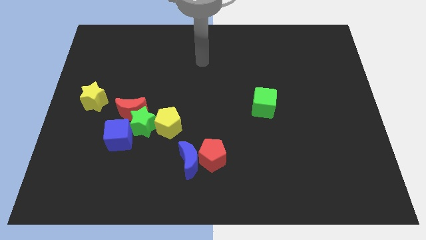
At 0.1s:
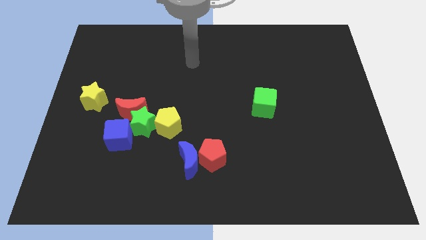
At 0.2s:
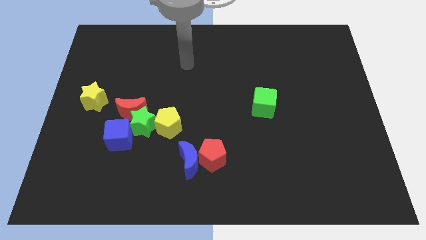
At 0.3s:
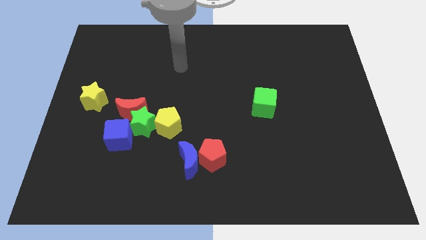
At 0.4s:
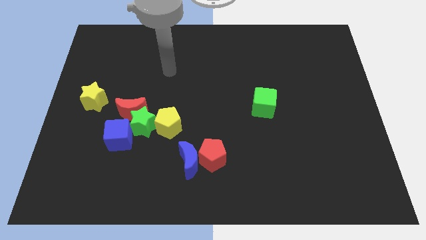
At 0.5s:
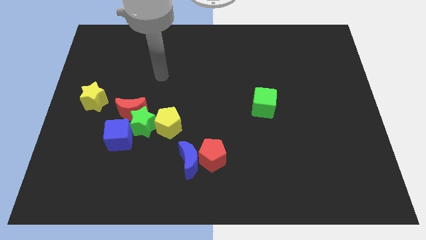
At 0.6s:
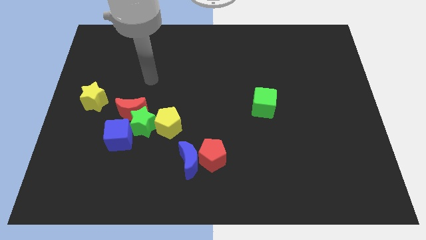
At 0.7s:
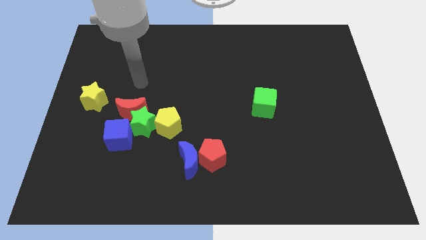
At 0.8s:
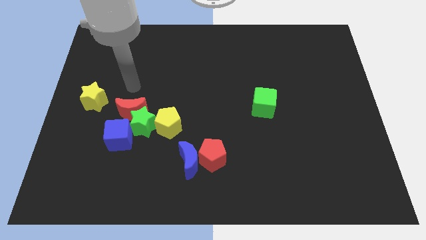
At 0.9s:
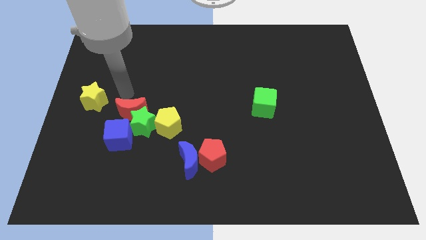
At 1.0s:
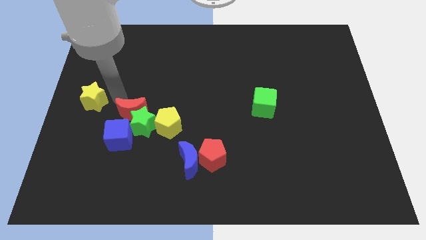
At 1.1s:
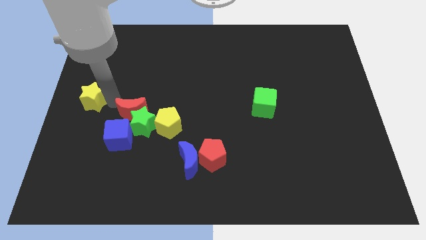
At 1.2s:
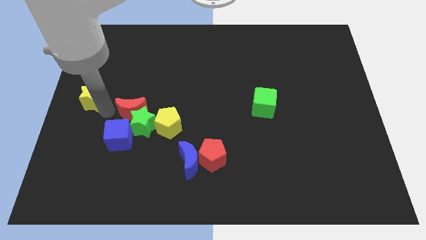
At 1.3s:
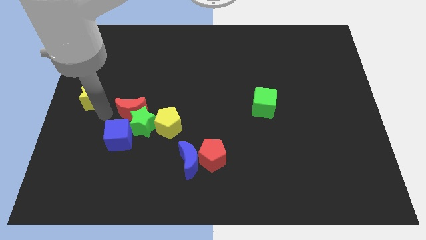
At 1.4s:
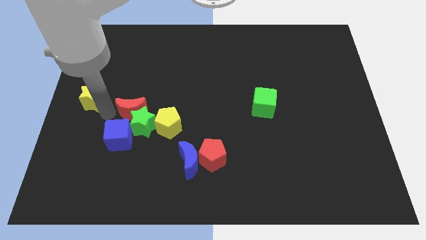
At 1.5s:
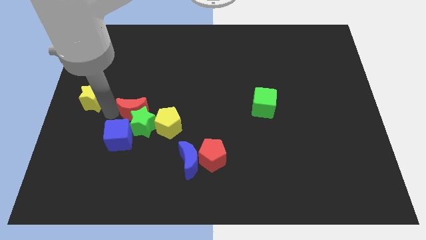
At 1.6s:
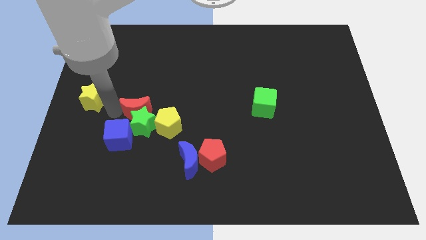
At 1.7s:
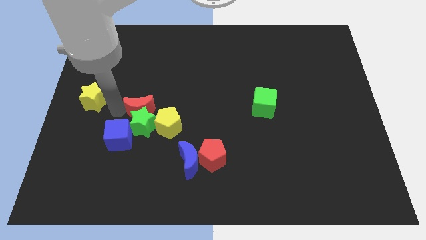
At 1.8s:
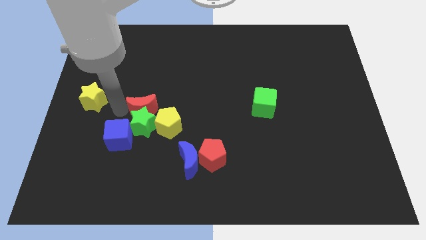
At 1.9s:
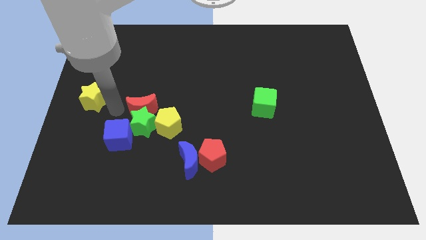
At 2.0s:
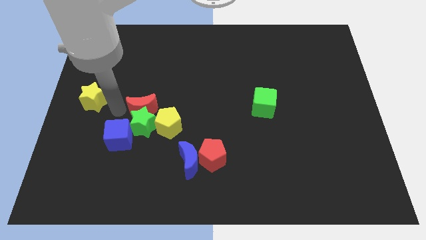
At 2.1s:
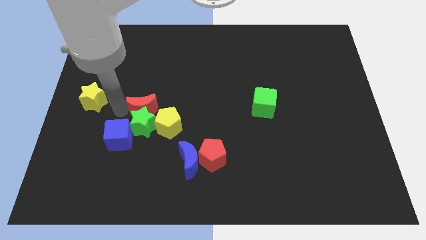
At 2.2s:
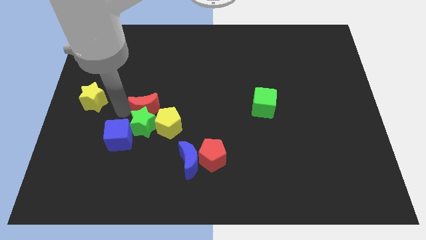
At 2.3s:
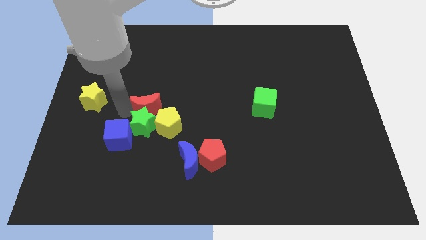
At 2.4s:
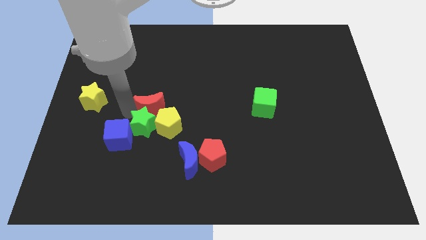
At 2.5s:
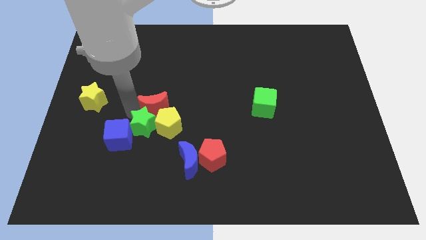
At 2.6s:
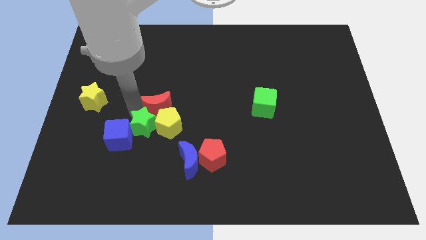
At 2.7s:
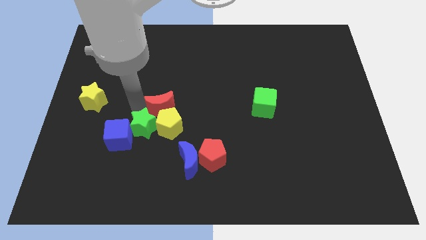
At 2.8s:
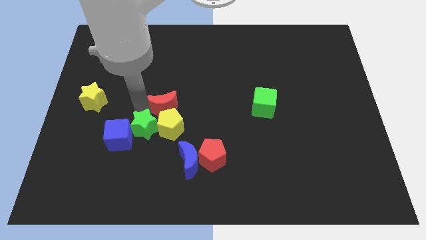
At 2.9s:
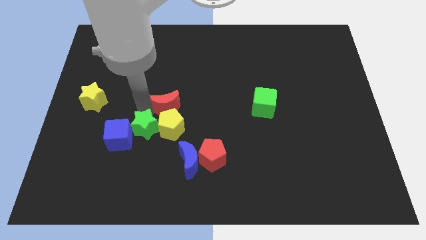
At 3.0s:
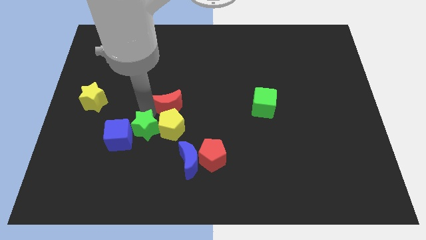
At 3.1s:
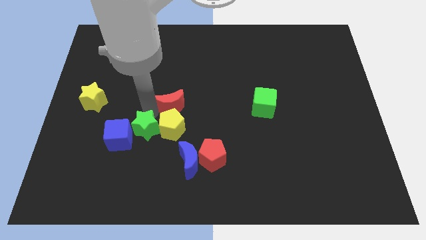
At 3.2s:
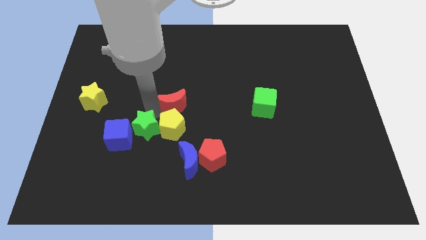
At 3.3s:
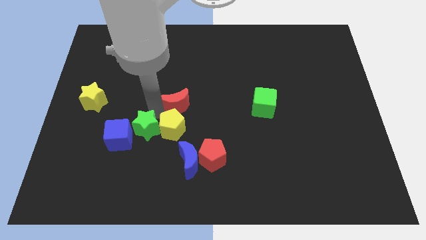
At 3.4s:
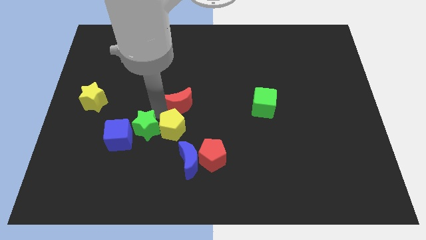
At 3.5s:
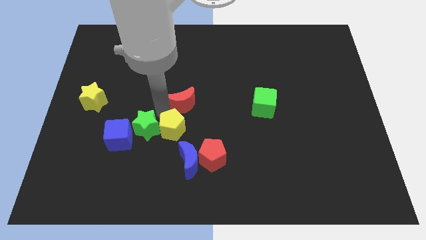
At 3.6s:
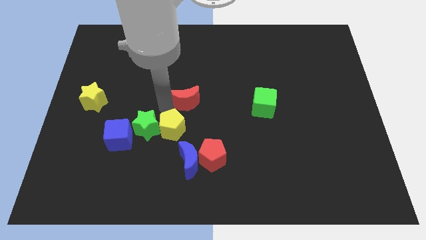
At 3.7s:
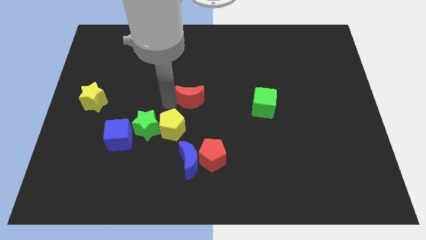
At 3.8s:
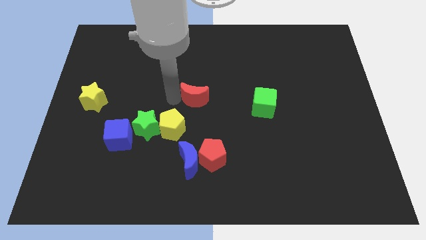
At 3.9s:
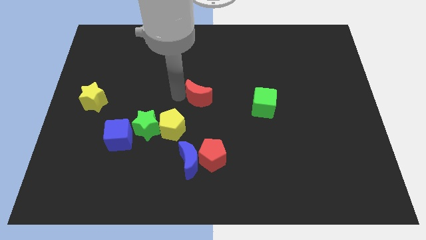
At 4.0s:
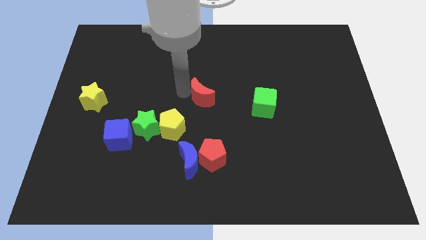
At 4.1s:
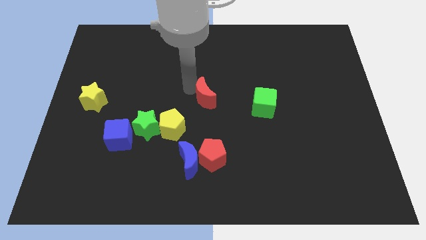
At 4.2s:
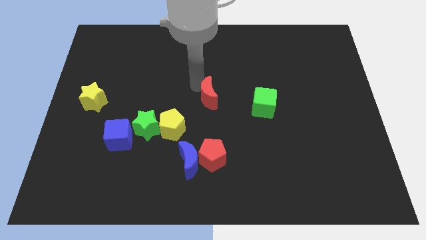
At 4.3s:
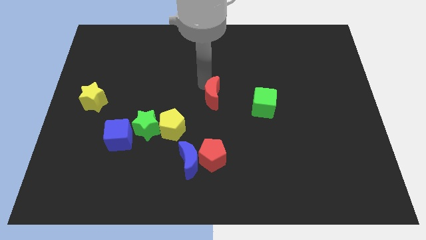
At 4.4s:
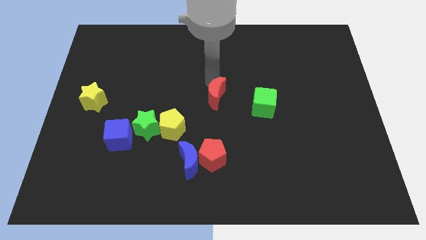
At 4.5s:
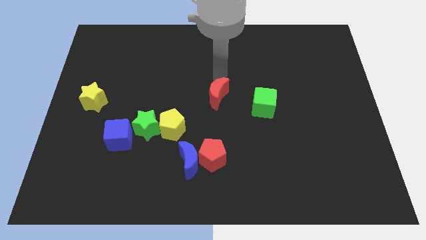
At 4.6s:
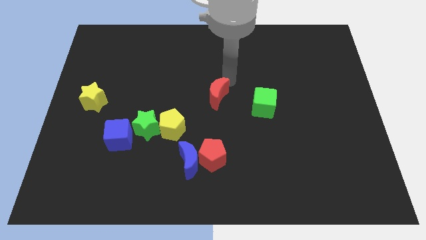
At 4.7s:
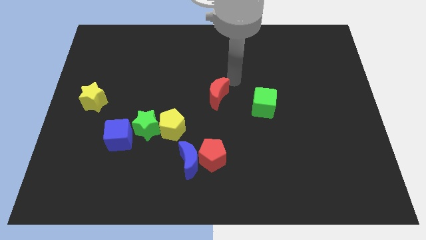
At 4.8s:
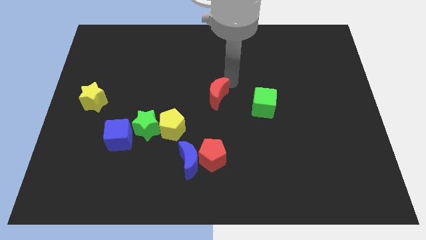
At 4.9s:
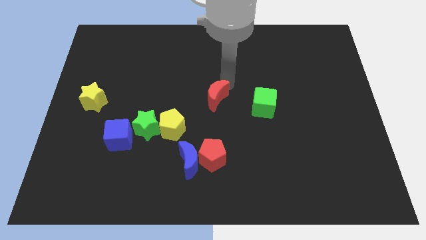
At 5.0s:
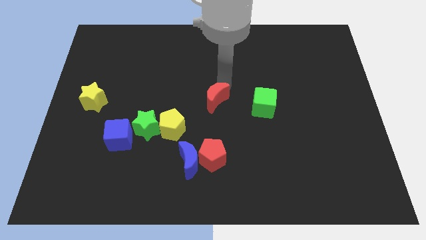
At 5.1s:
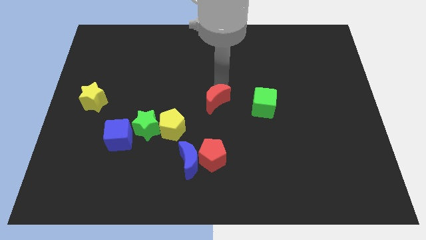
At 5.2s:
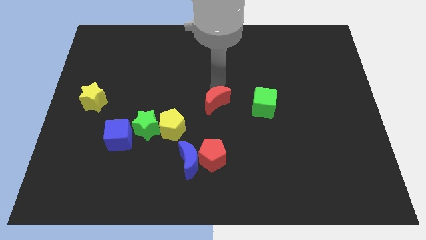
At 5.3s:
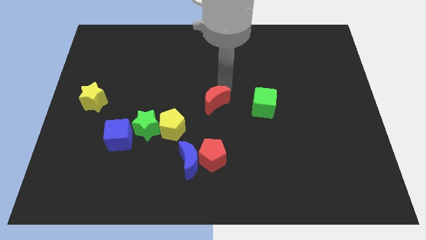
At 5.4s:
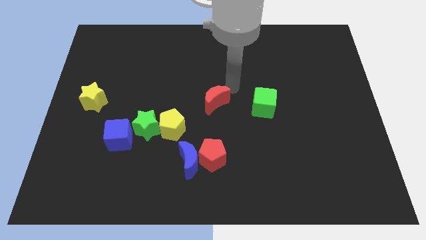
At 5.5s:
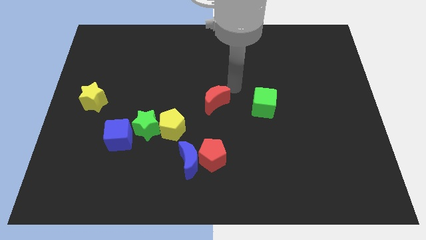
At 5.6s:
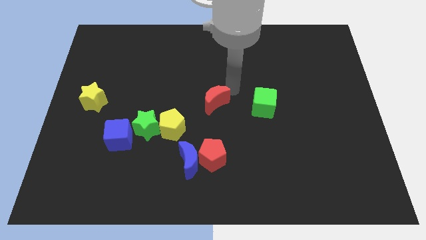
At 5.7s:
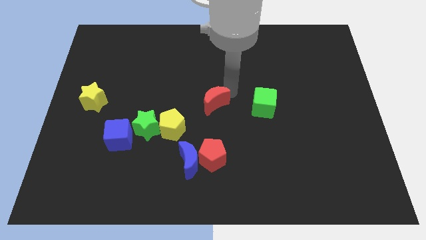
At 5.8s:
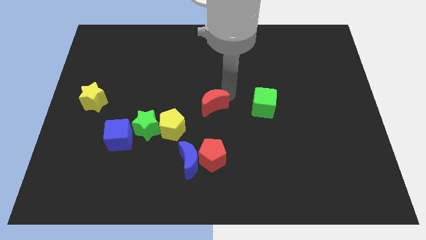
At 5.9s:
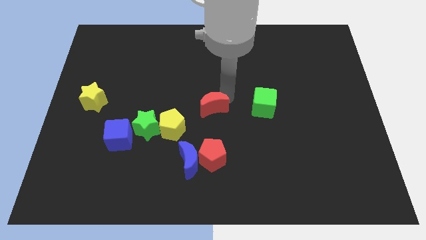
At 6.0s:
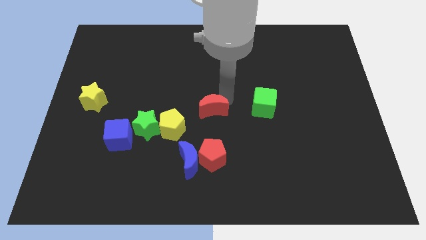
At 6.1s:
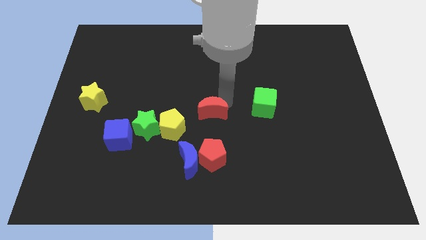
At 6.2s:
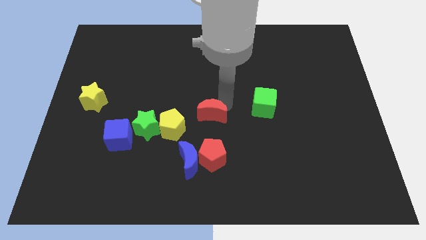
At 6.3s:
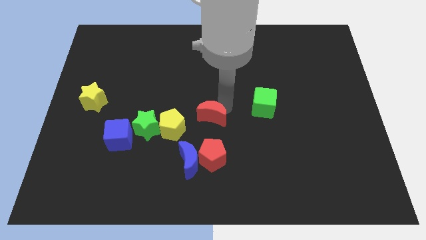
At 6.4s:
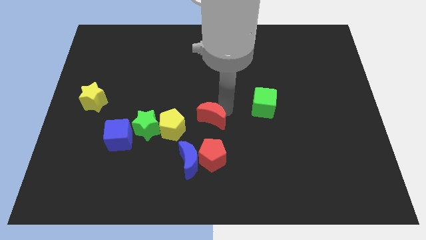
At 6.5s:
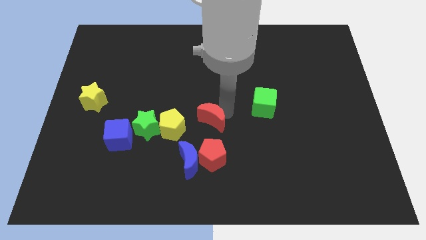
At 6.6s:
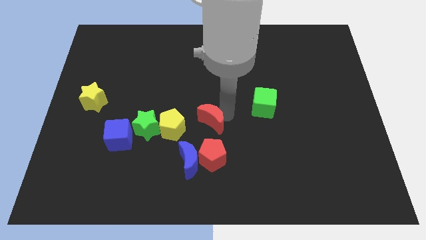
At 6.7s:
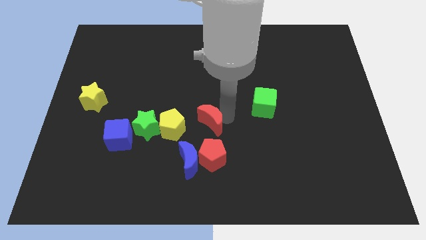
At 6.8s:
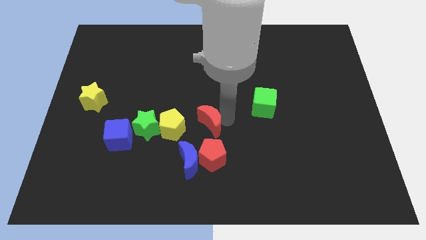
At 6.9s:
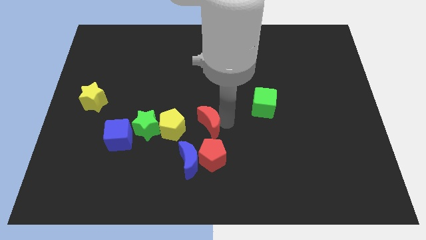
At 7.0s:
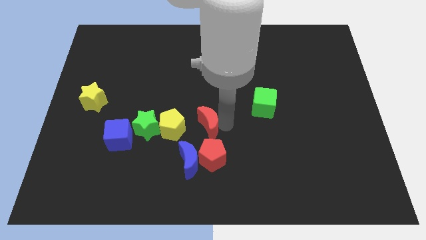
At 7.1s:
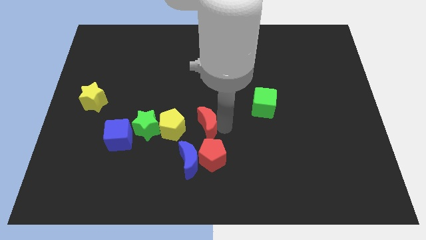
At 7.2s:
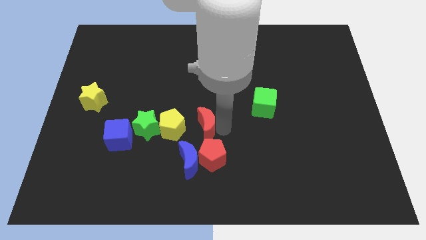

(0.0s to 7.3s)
put the red moon diagonally up and to the left of the red pentagon
